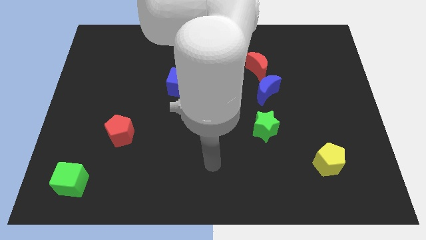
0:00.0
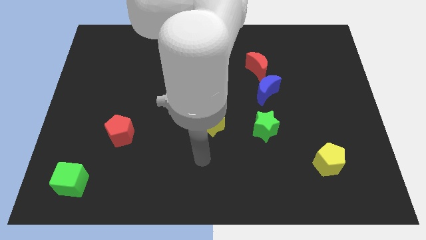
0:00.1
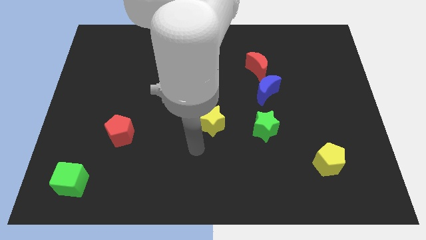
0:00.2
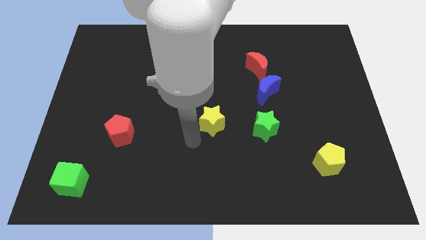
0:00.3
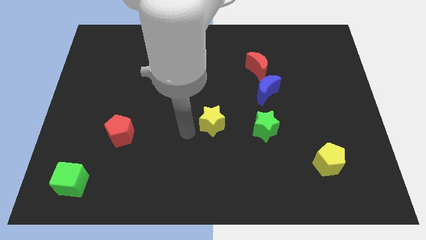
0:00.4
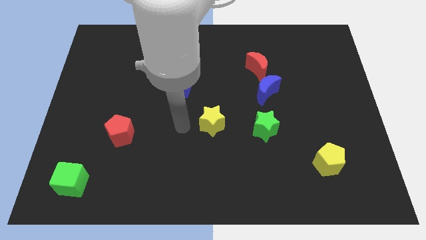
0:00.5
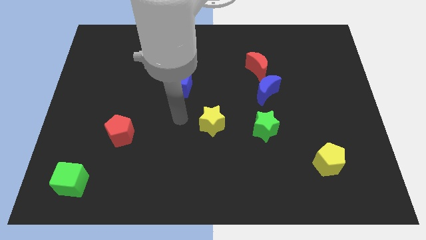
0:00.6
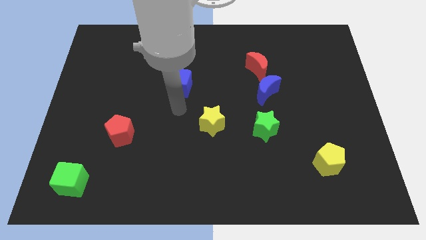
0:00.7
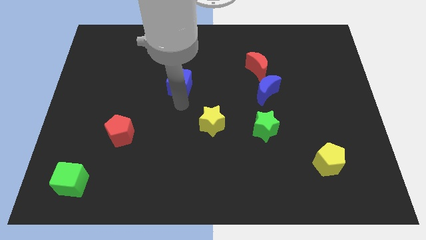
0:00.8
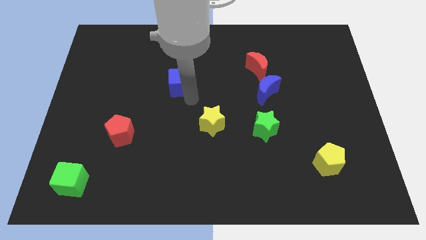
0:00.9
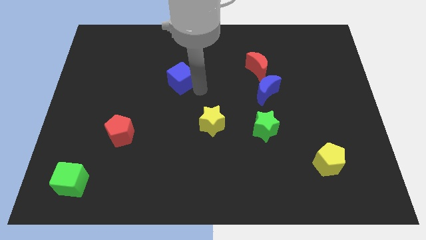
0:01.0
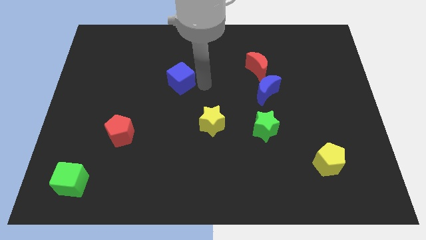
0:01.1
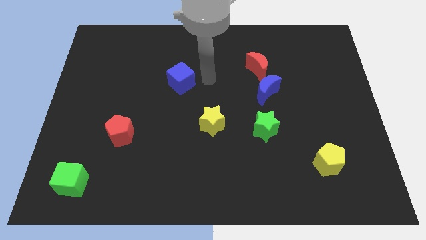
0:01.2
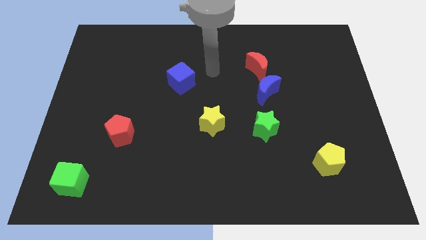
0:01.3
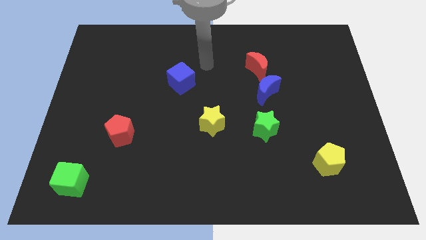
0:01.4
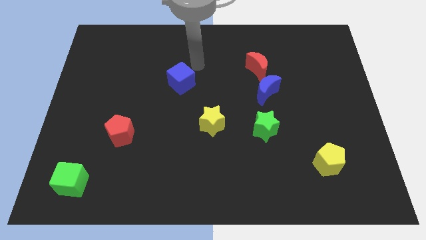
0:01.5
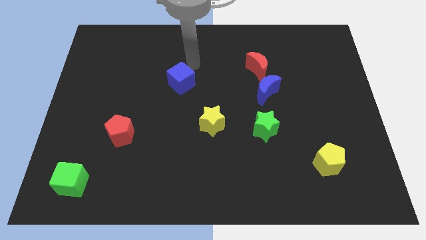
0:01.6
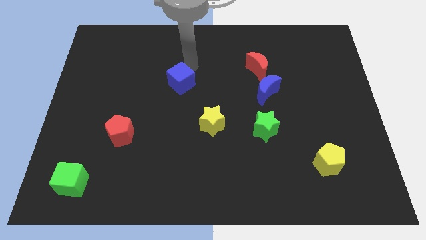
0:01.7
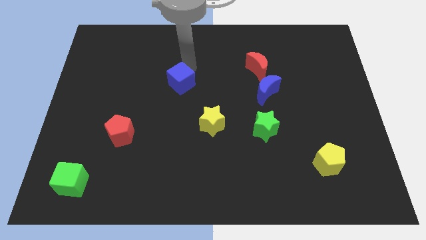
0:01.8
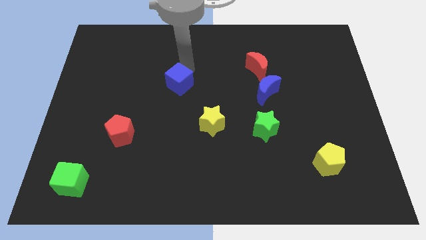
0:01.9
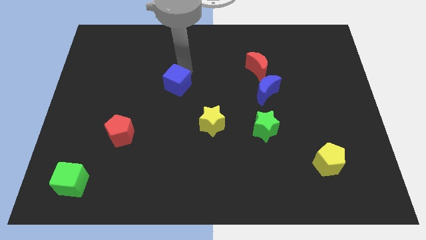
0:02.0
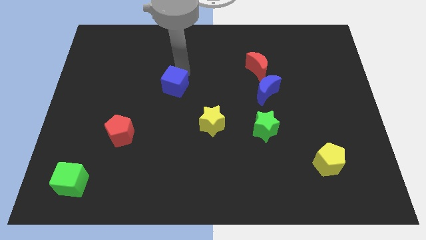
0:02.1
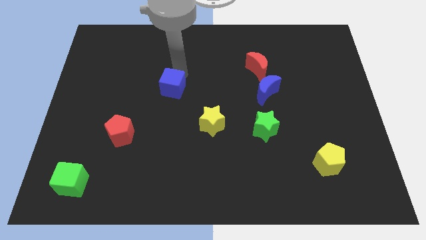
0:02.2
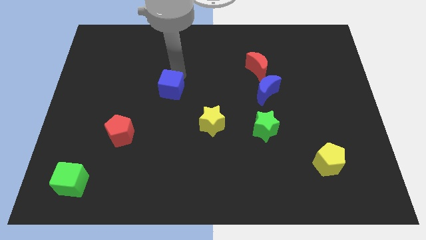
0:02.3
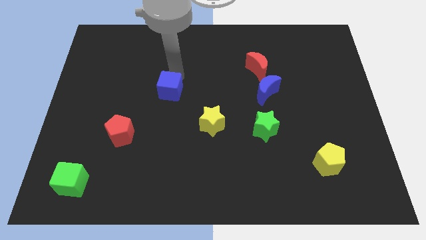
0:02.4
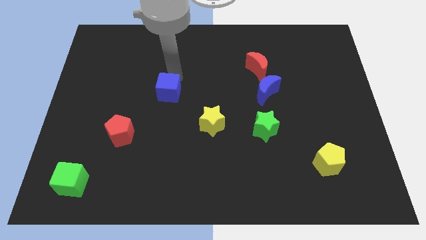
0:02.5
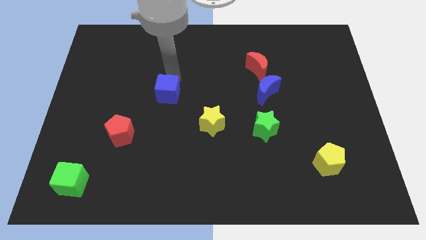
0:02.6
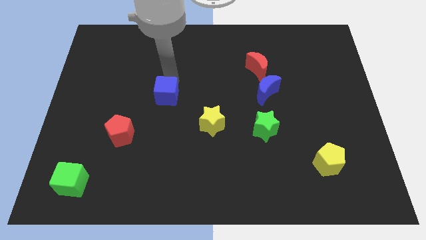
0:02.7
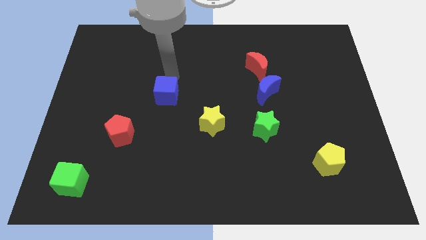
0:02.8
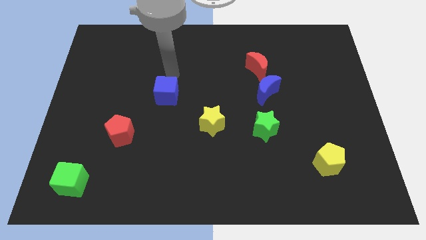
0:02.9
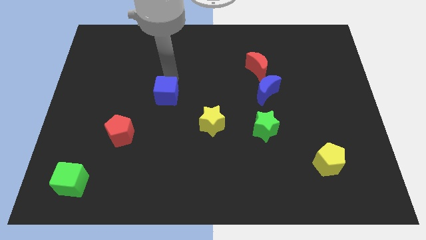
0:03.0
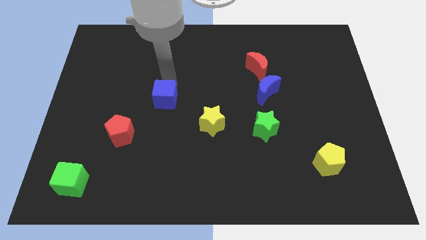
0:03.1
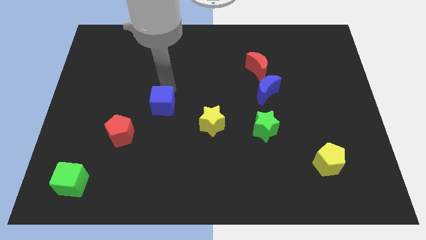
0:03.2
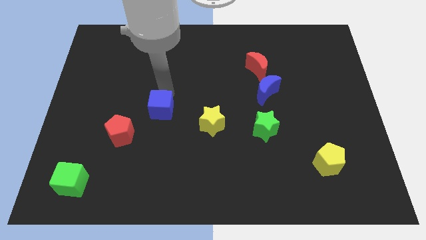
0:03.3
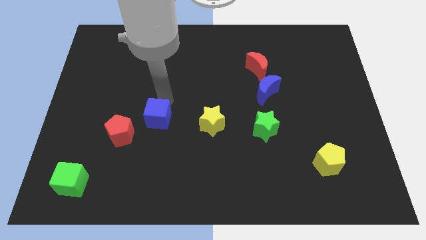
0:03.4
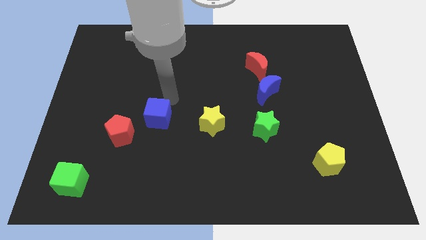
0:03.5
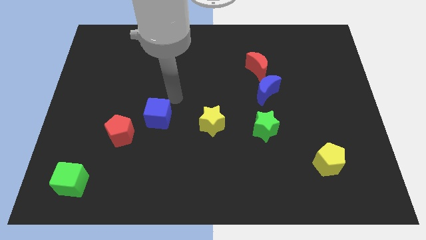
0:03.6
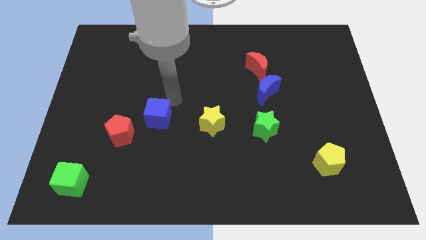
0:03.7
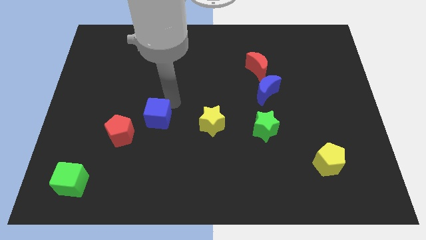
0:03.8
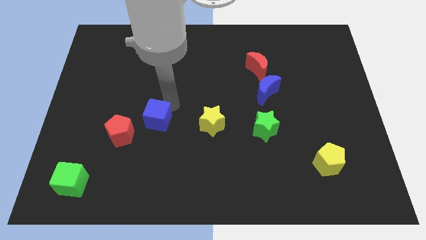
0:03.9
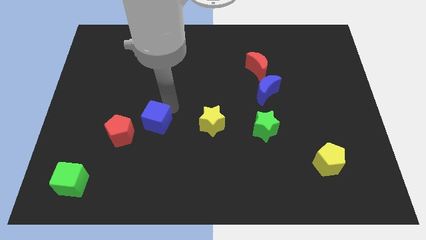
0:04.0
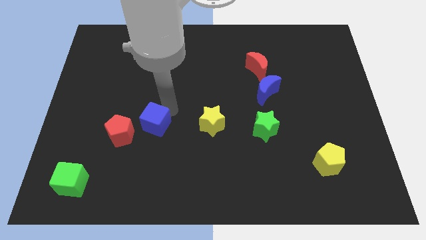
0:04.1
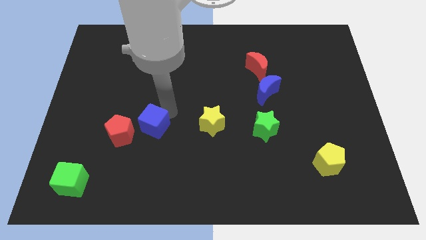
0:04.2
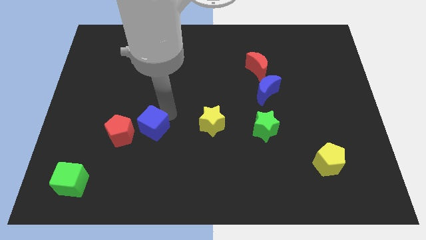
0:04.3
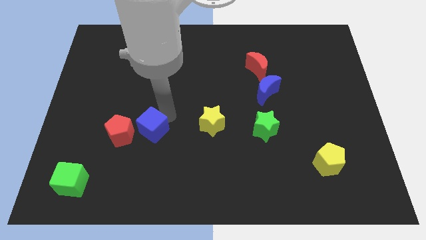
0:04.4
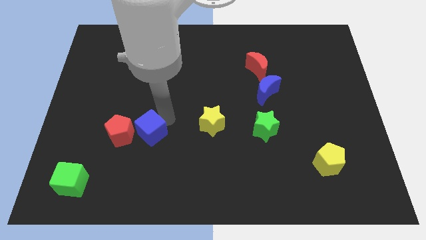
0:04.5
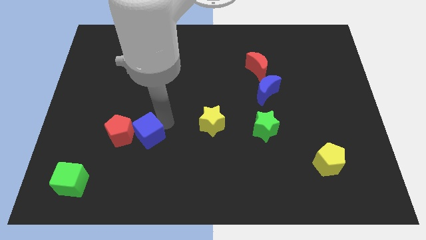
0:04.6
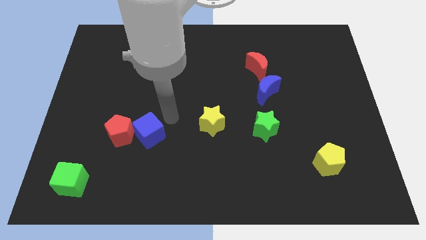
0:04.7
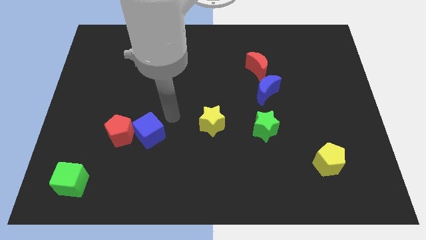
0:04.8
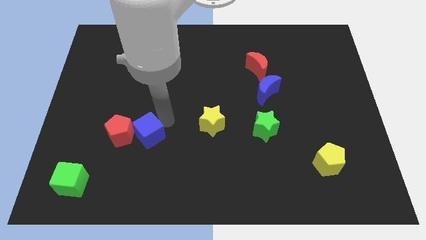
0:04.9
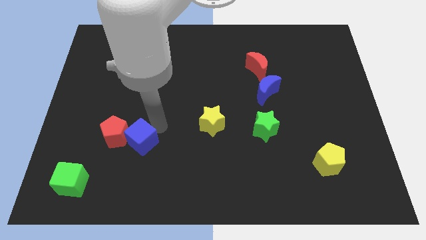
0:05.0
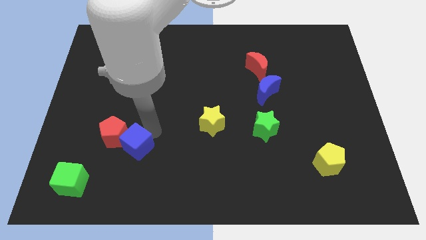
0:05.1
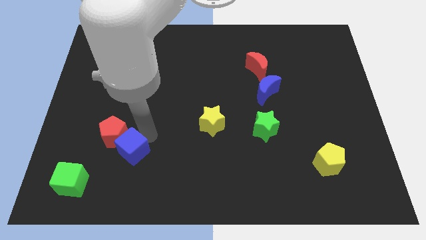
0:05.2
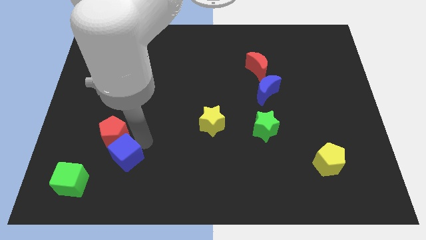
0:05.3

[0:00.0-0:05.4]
move the blue cube diagonally up and to the right of the green cube

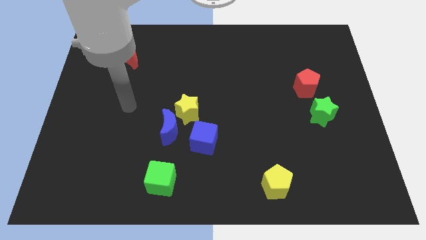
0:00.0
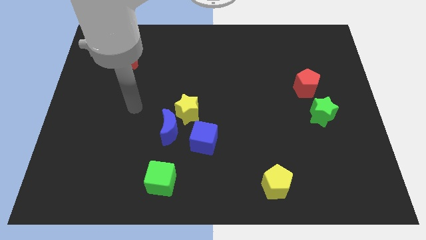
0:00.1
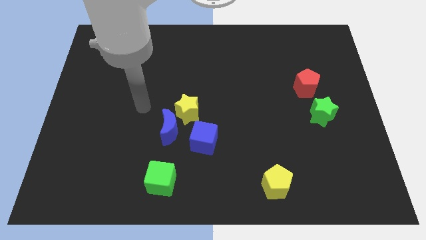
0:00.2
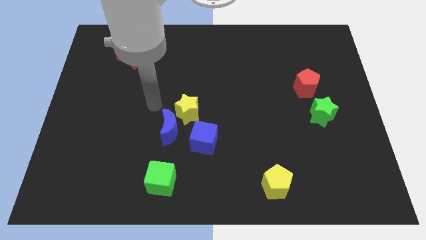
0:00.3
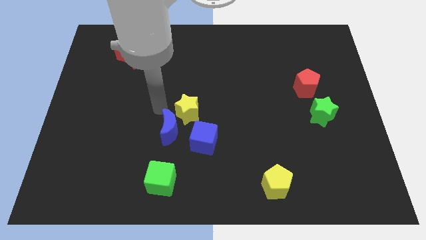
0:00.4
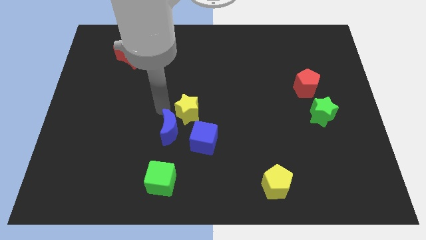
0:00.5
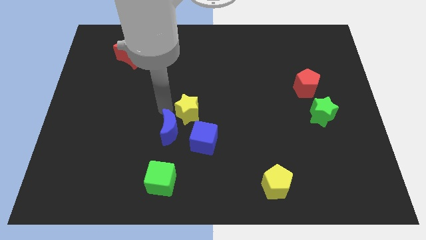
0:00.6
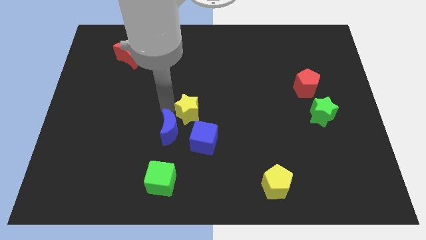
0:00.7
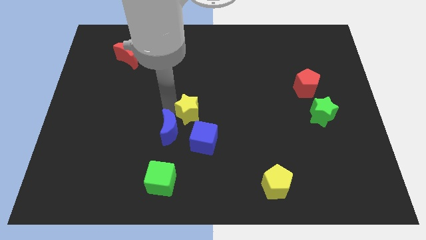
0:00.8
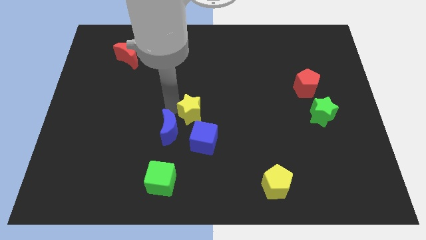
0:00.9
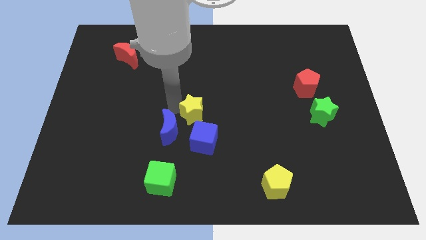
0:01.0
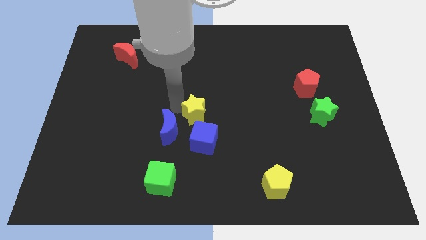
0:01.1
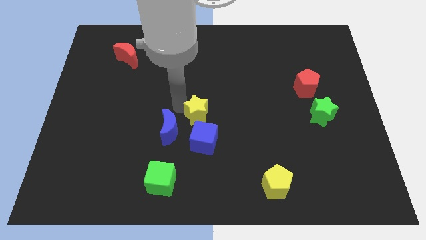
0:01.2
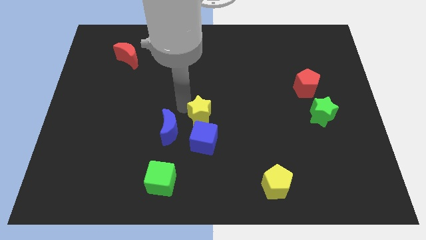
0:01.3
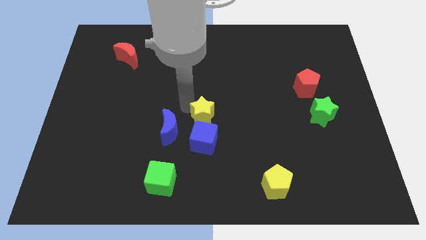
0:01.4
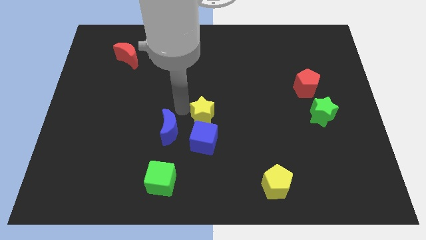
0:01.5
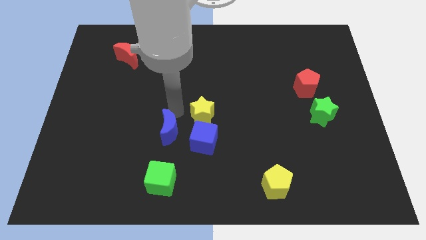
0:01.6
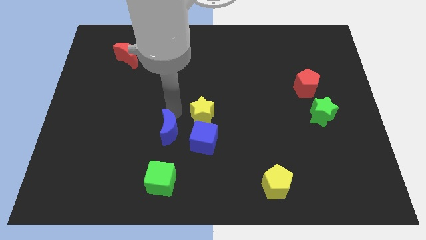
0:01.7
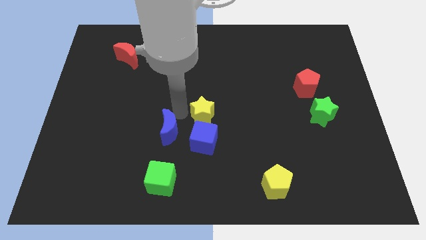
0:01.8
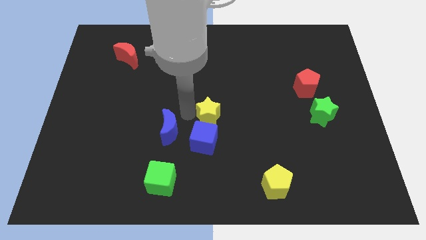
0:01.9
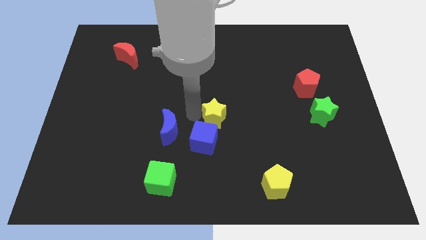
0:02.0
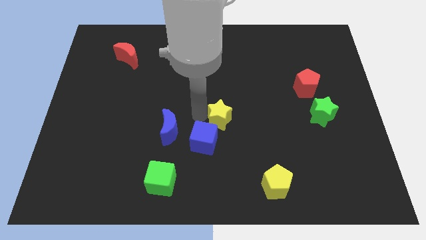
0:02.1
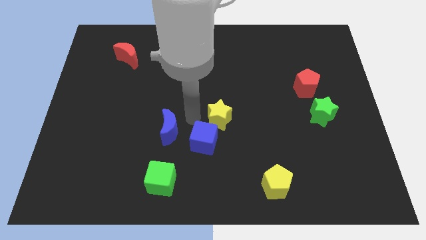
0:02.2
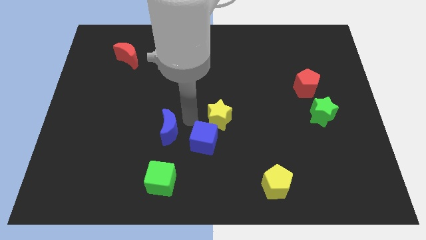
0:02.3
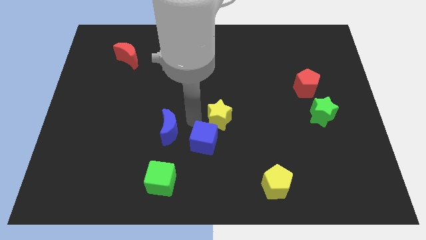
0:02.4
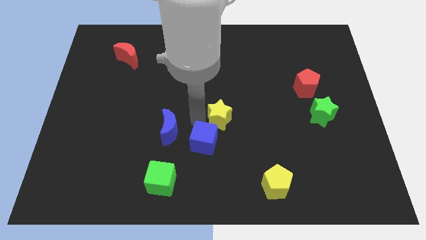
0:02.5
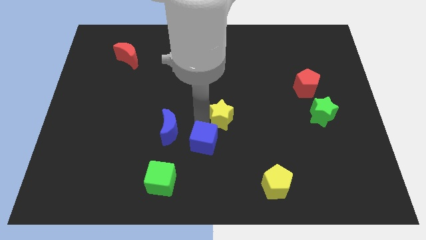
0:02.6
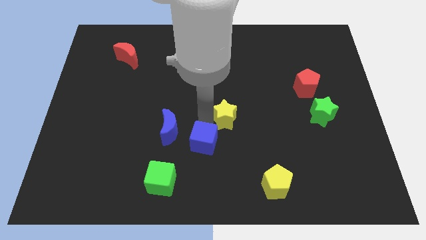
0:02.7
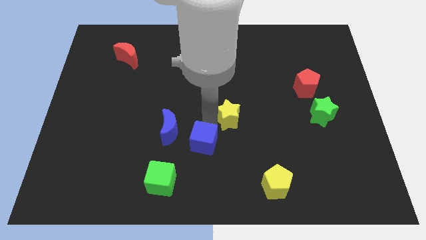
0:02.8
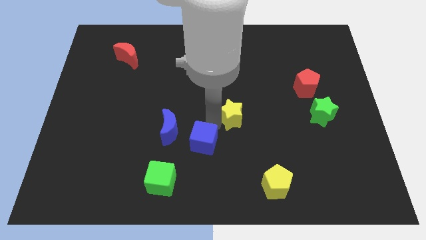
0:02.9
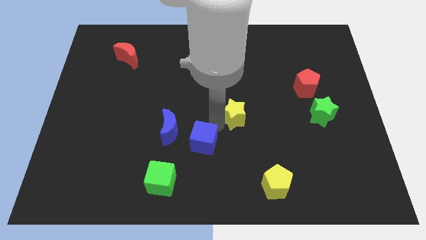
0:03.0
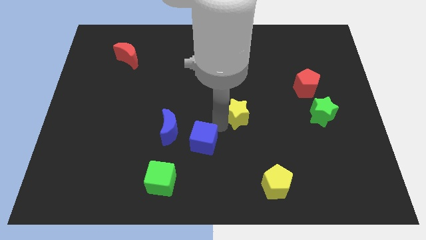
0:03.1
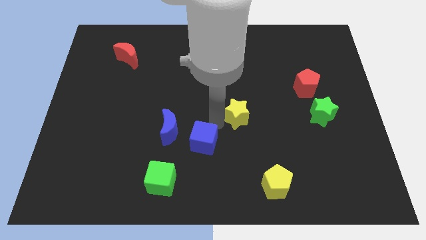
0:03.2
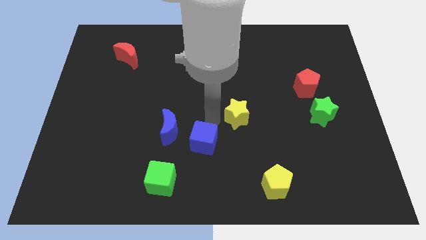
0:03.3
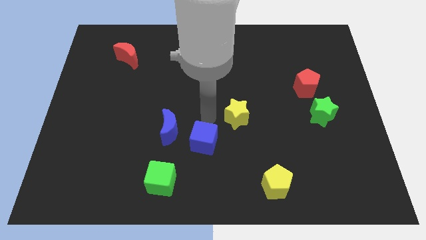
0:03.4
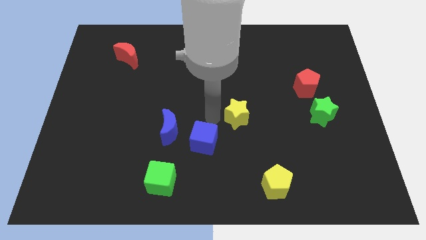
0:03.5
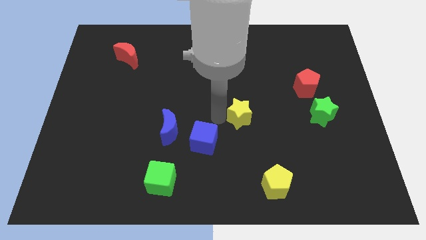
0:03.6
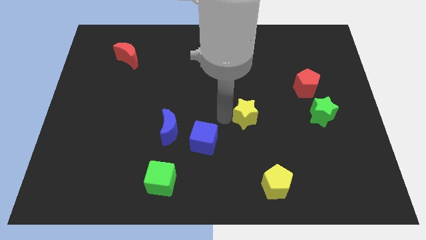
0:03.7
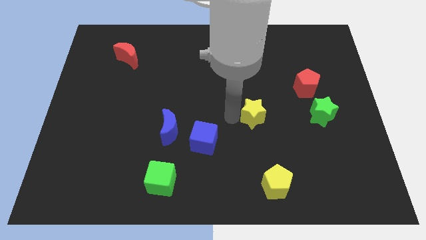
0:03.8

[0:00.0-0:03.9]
put the yellow star left of the green star
